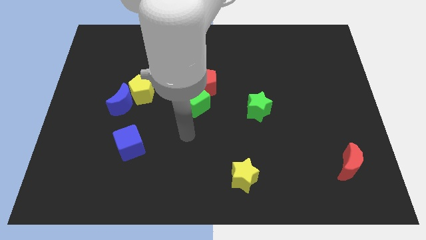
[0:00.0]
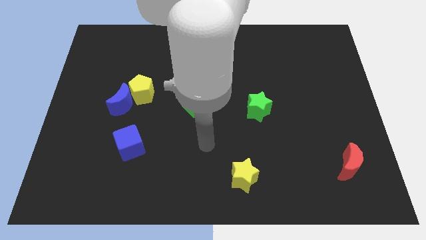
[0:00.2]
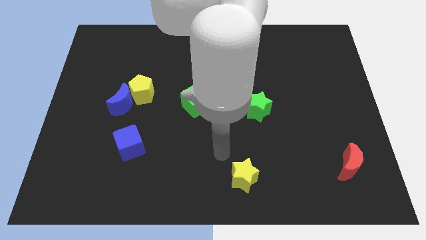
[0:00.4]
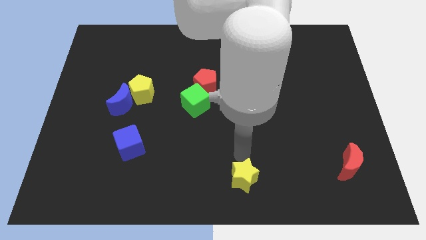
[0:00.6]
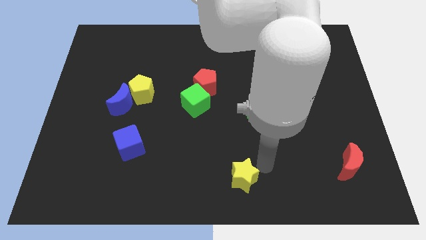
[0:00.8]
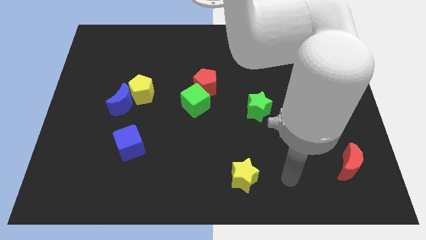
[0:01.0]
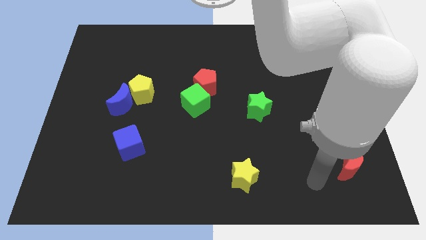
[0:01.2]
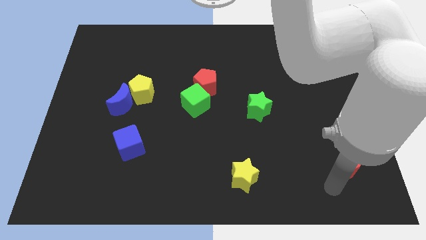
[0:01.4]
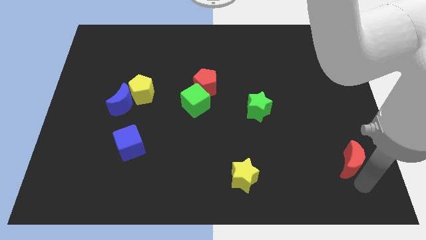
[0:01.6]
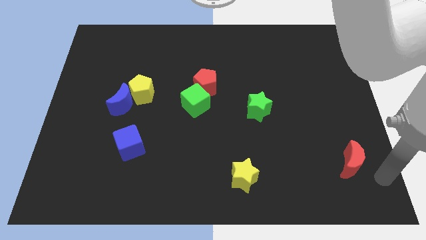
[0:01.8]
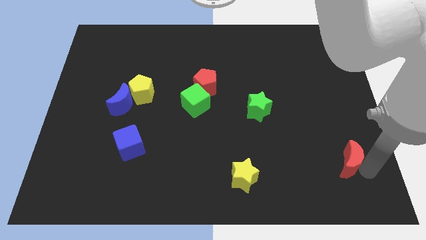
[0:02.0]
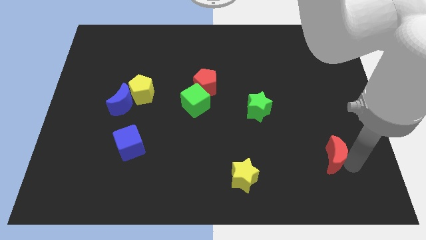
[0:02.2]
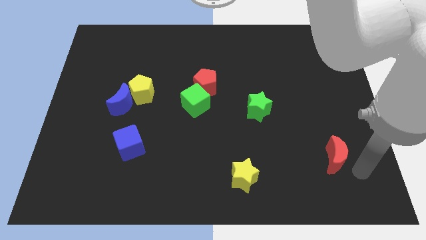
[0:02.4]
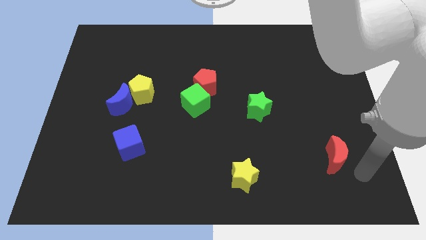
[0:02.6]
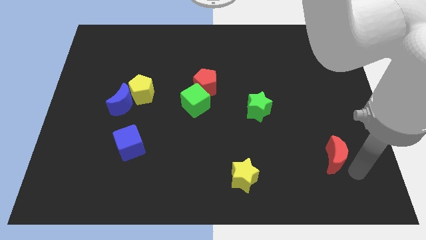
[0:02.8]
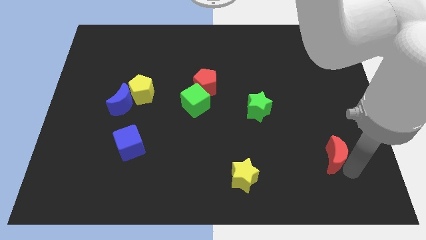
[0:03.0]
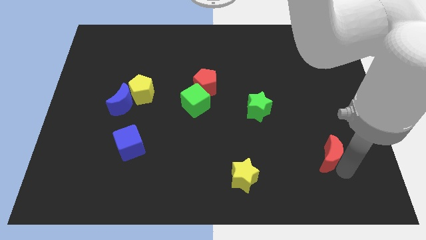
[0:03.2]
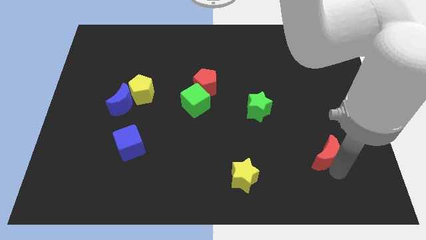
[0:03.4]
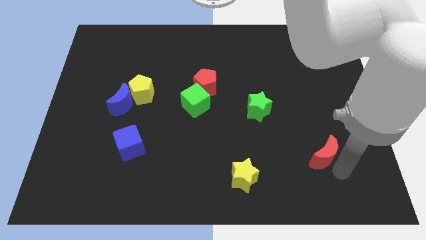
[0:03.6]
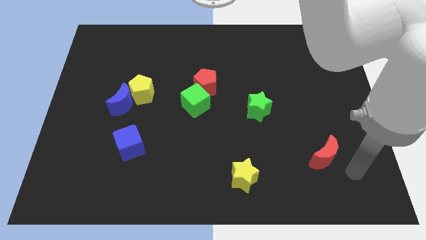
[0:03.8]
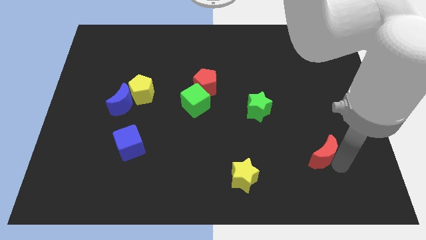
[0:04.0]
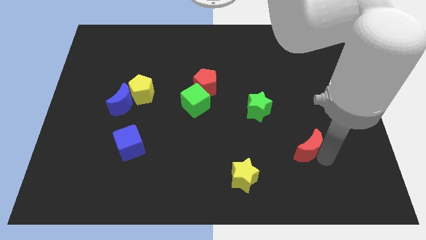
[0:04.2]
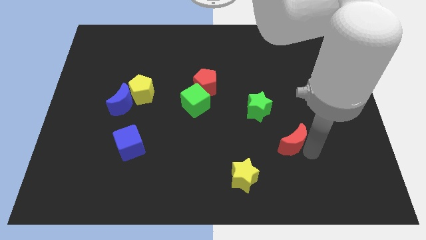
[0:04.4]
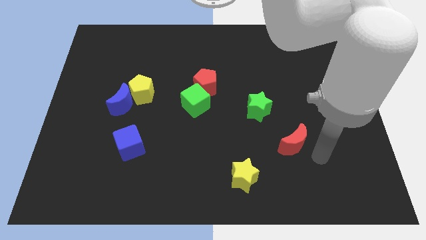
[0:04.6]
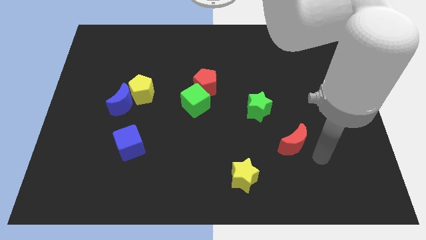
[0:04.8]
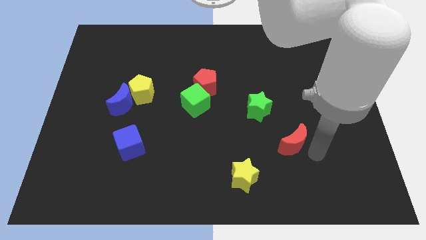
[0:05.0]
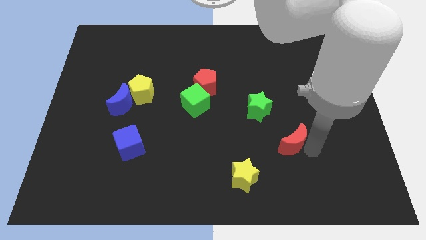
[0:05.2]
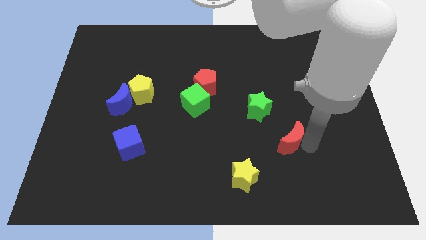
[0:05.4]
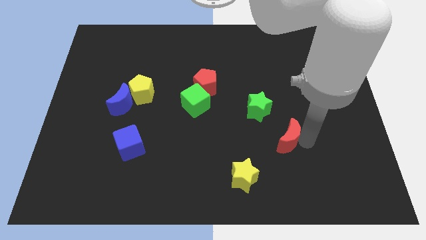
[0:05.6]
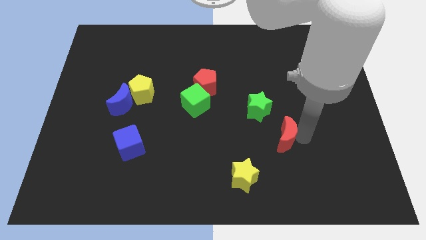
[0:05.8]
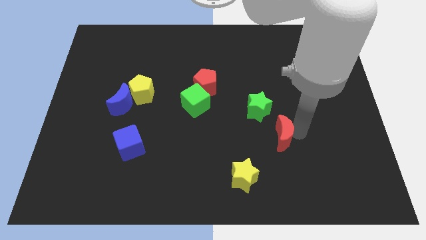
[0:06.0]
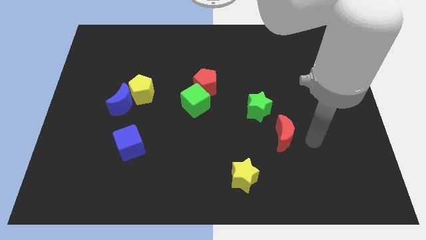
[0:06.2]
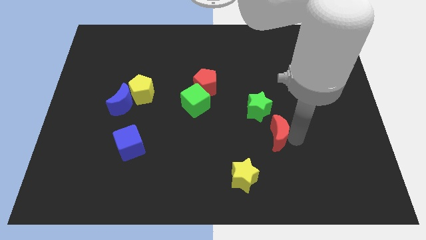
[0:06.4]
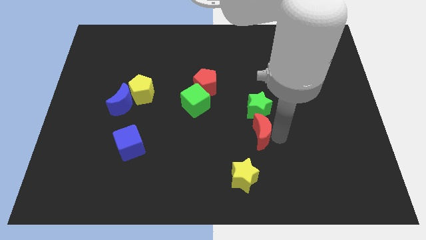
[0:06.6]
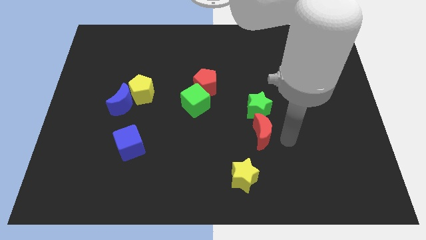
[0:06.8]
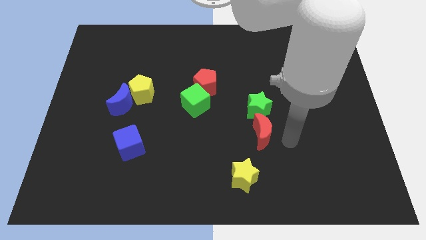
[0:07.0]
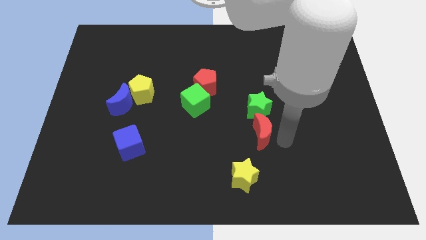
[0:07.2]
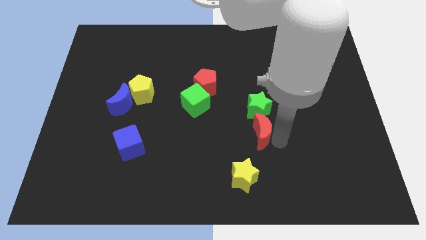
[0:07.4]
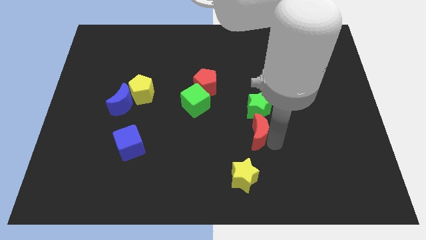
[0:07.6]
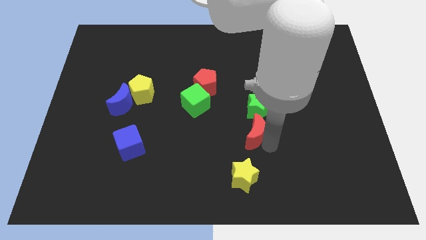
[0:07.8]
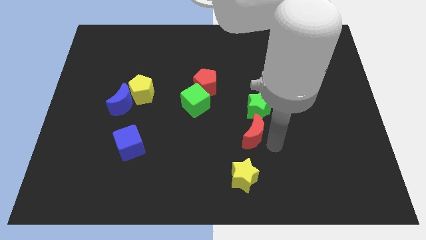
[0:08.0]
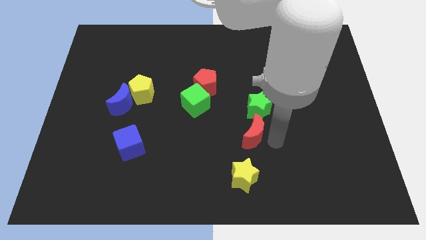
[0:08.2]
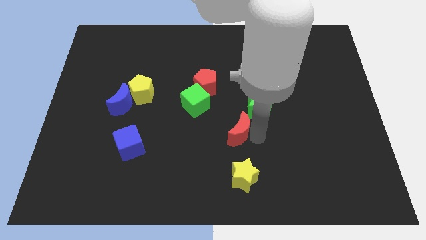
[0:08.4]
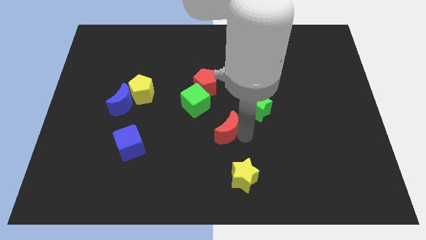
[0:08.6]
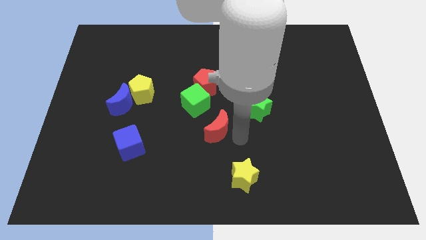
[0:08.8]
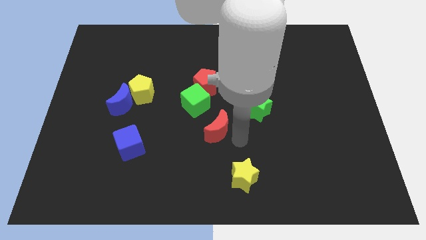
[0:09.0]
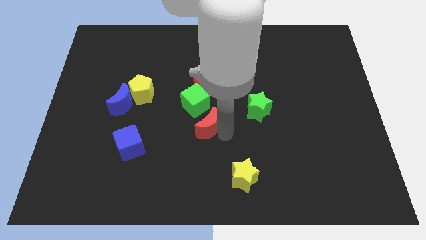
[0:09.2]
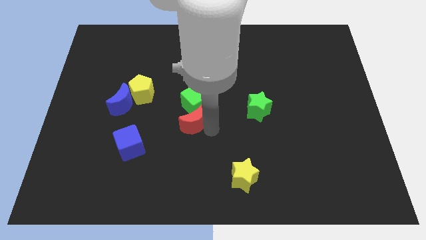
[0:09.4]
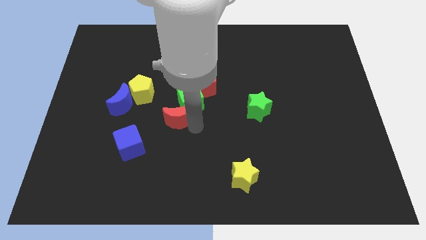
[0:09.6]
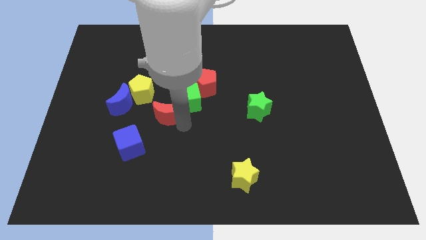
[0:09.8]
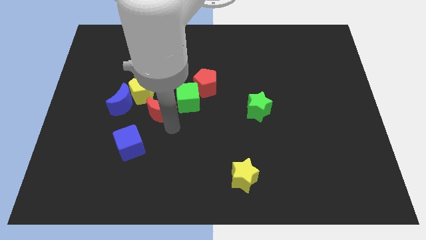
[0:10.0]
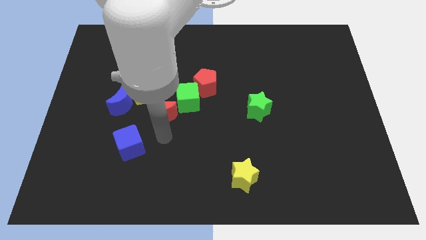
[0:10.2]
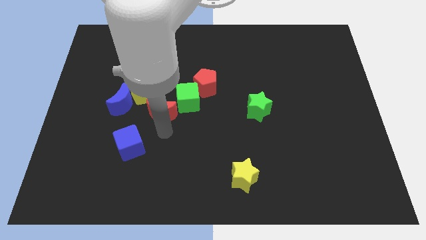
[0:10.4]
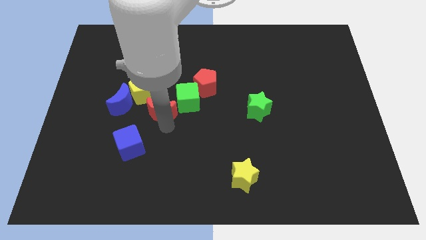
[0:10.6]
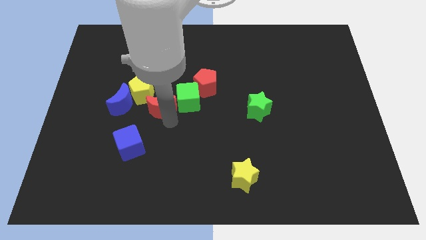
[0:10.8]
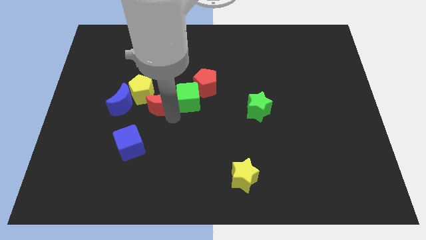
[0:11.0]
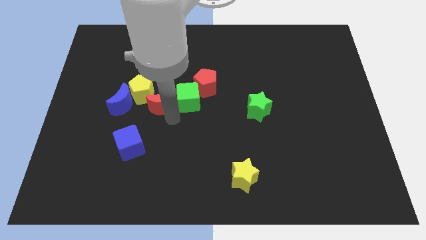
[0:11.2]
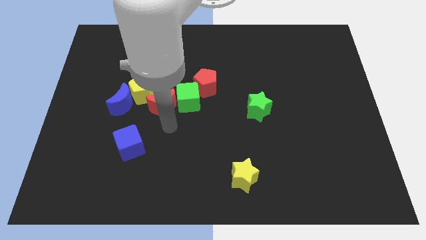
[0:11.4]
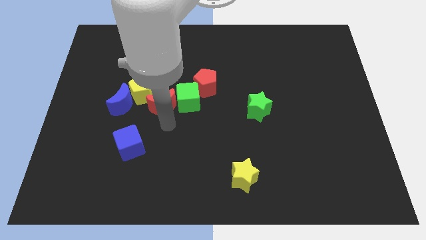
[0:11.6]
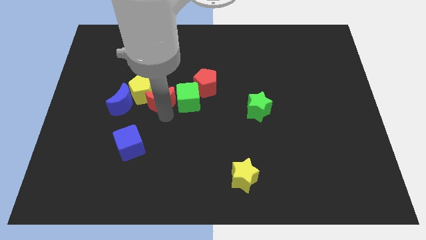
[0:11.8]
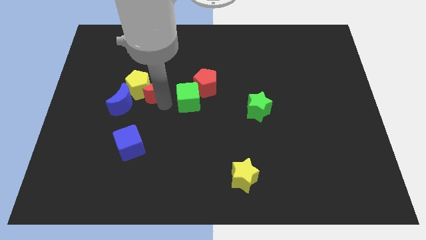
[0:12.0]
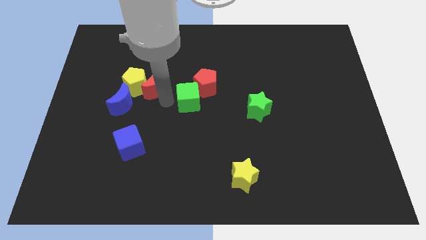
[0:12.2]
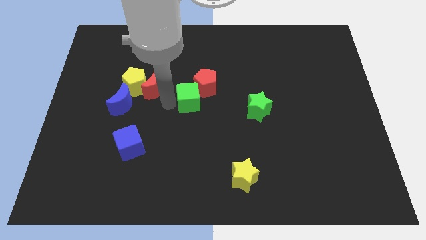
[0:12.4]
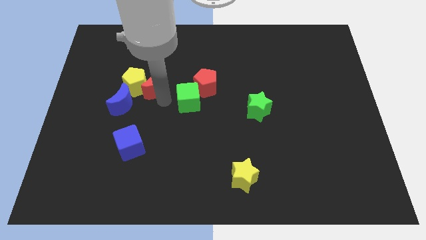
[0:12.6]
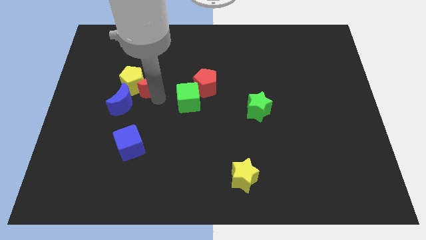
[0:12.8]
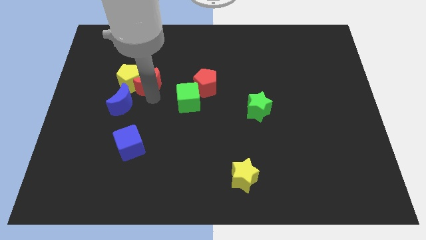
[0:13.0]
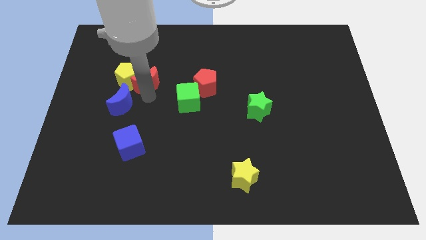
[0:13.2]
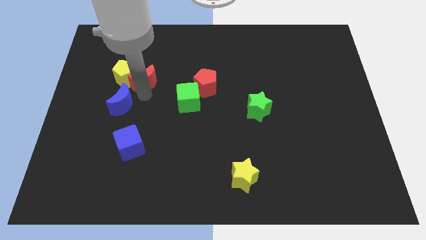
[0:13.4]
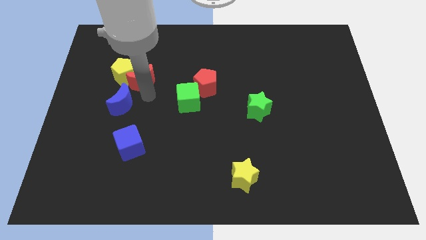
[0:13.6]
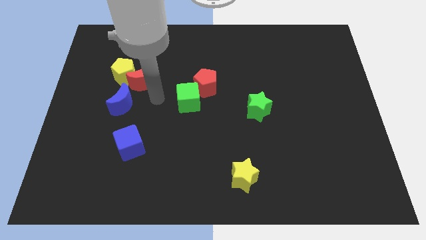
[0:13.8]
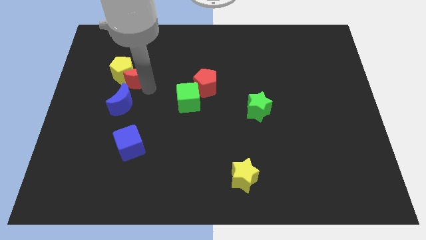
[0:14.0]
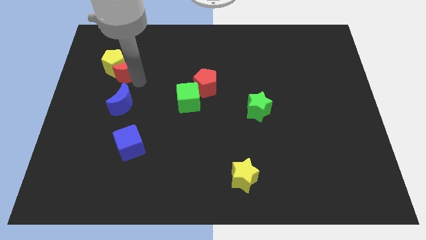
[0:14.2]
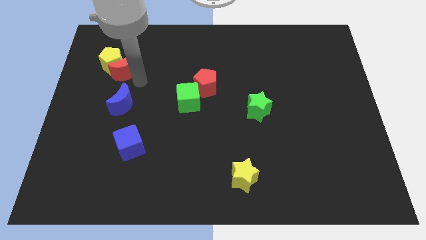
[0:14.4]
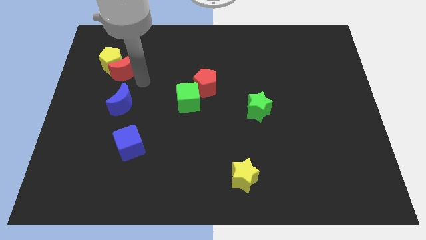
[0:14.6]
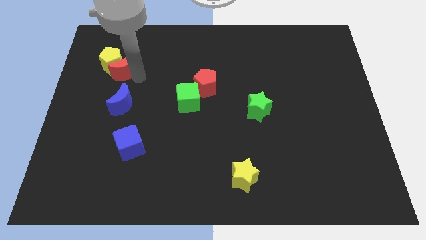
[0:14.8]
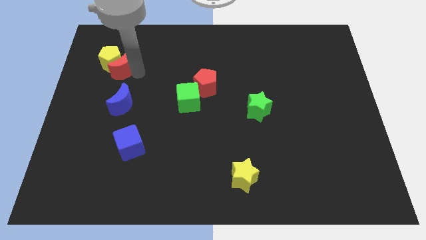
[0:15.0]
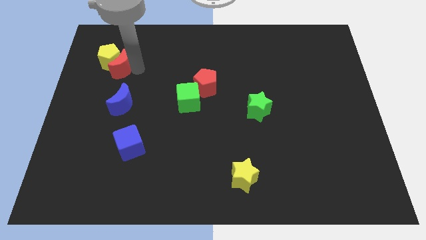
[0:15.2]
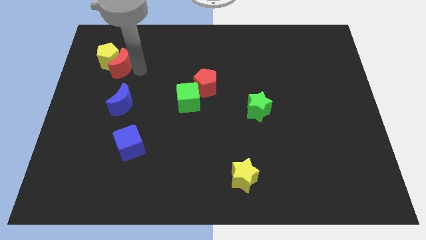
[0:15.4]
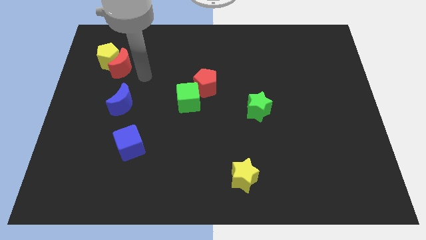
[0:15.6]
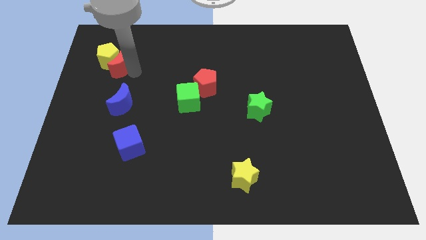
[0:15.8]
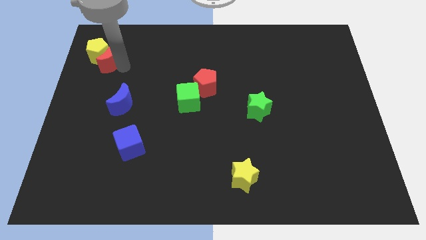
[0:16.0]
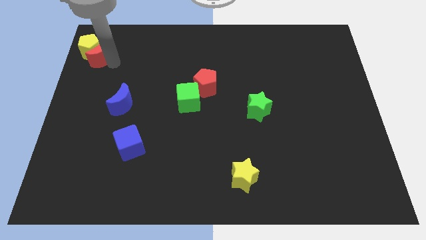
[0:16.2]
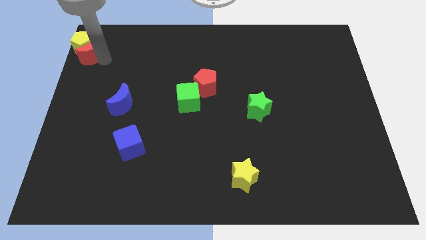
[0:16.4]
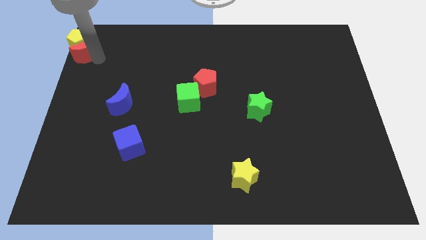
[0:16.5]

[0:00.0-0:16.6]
move the red moon to the upper left corner
